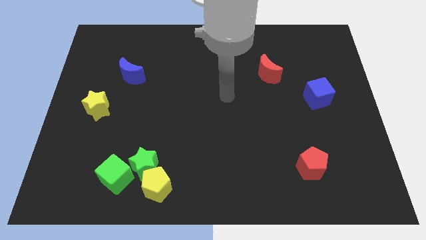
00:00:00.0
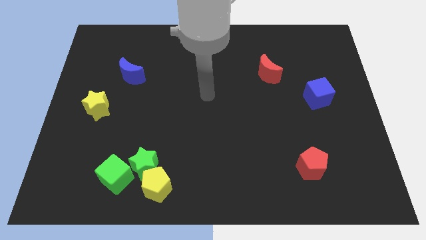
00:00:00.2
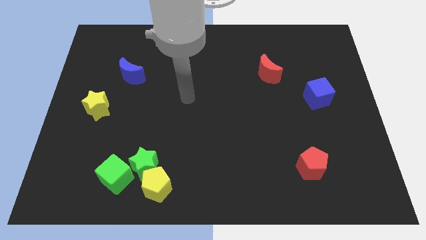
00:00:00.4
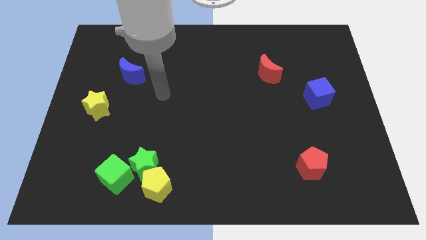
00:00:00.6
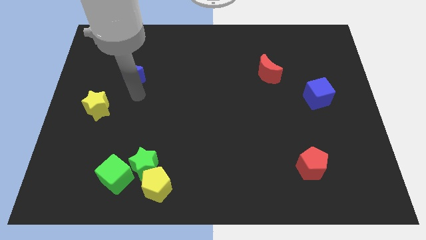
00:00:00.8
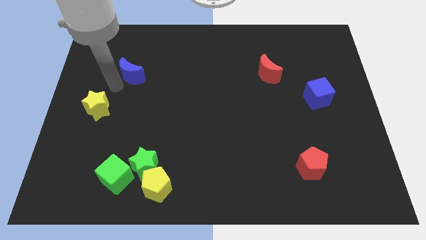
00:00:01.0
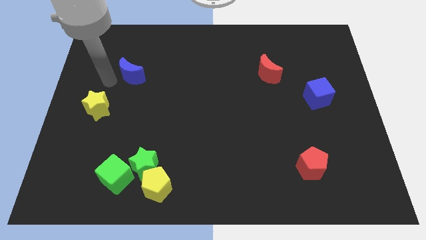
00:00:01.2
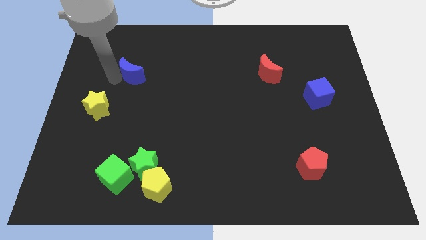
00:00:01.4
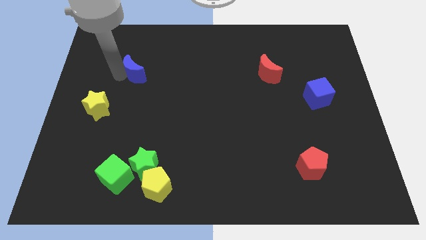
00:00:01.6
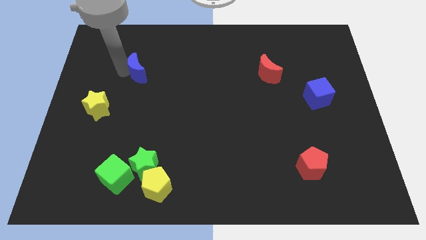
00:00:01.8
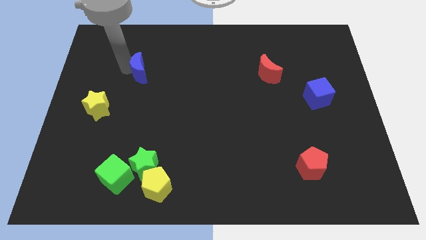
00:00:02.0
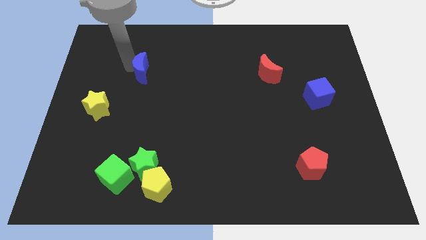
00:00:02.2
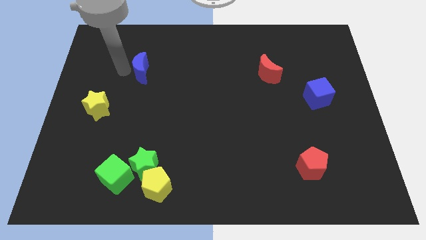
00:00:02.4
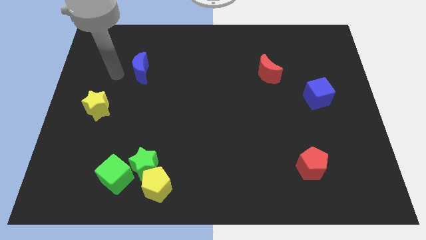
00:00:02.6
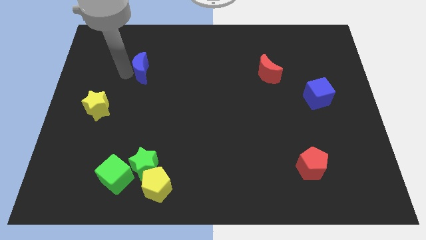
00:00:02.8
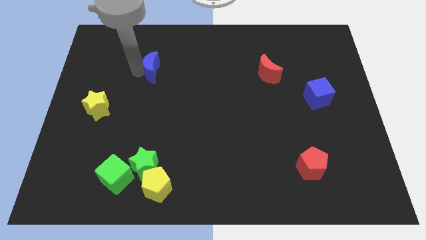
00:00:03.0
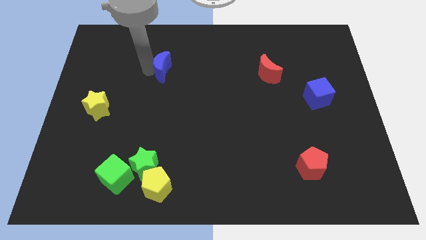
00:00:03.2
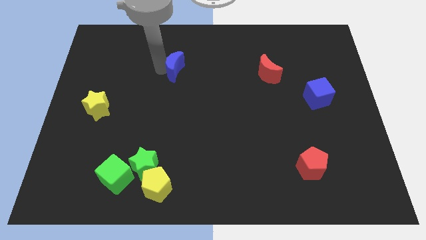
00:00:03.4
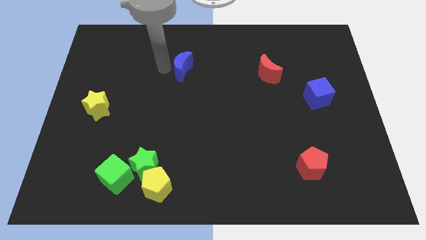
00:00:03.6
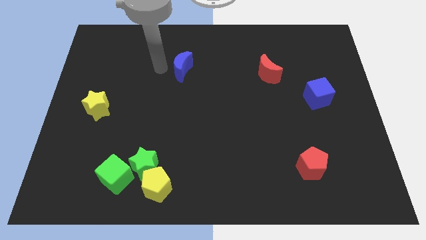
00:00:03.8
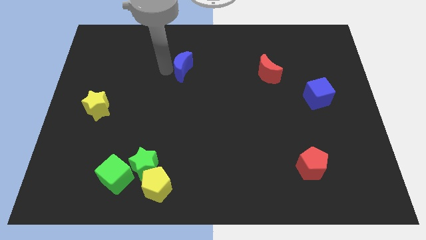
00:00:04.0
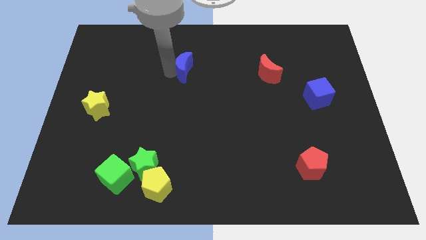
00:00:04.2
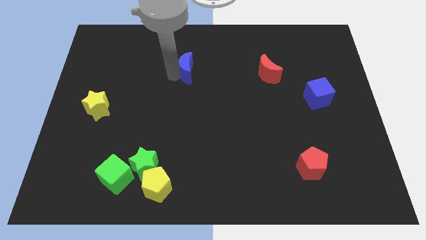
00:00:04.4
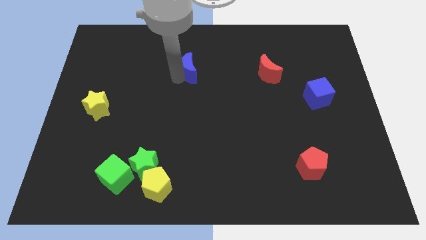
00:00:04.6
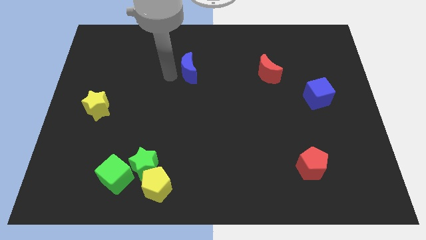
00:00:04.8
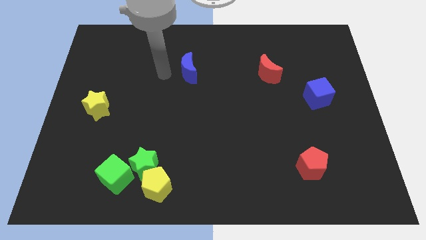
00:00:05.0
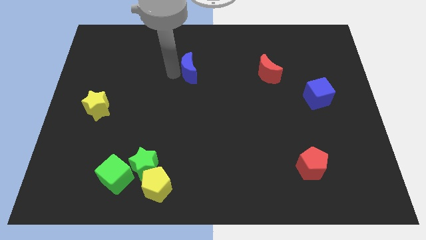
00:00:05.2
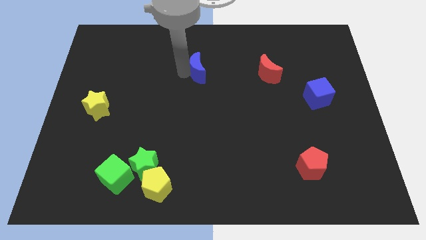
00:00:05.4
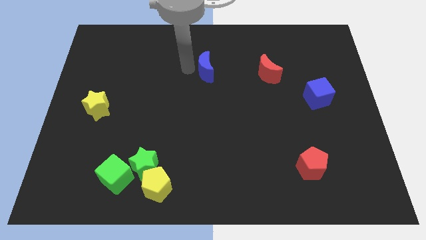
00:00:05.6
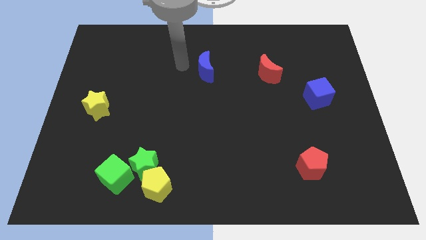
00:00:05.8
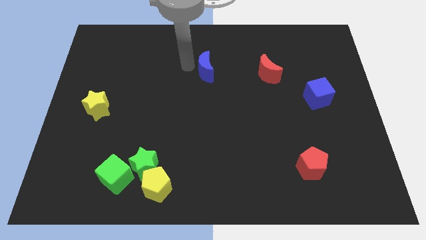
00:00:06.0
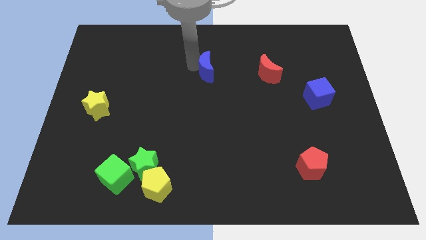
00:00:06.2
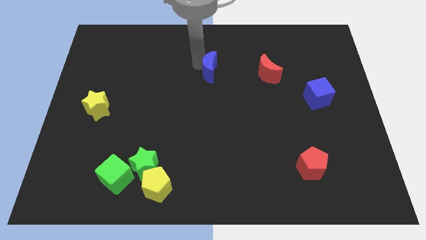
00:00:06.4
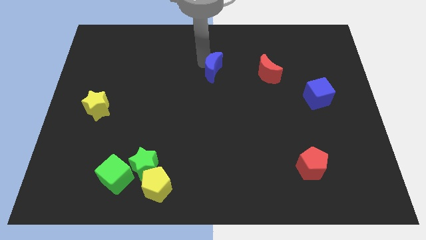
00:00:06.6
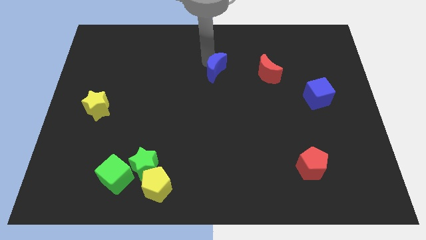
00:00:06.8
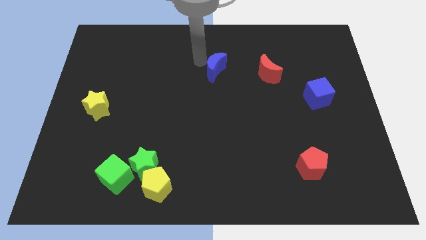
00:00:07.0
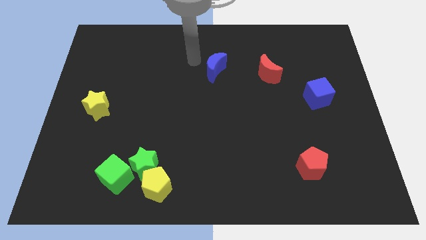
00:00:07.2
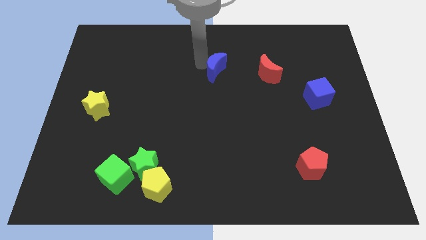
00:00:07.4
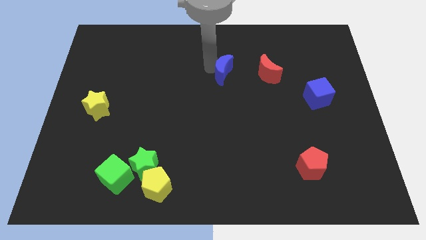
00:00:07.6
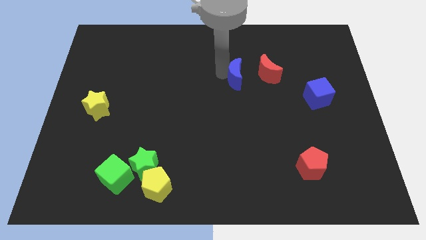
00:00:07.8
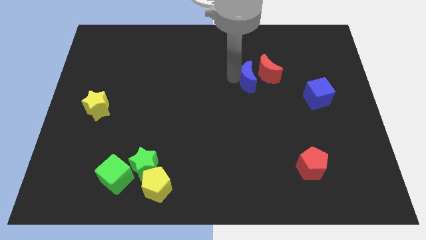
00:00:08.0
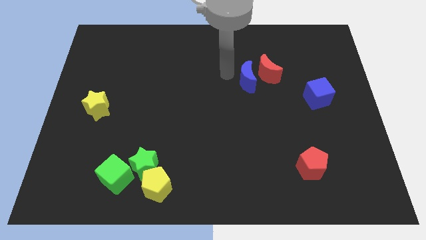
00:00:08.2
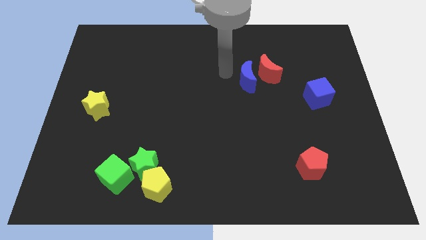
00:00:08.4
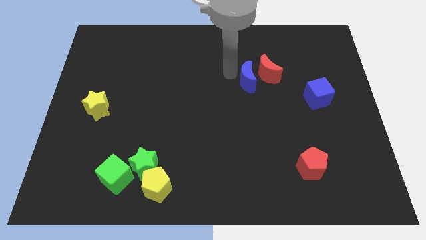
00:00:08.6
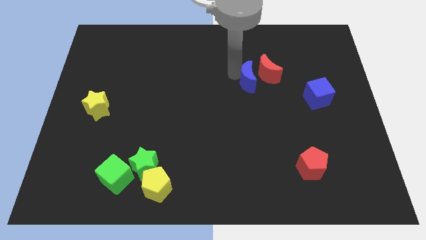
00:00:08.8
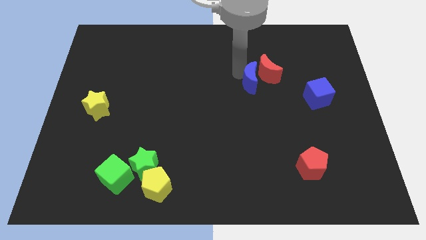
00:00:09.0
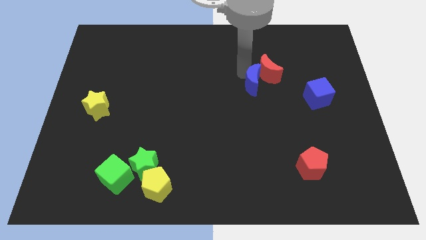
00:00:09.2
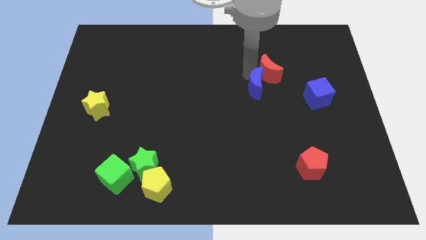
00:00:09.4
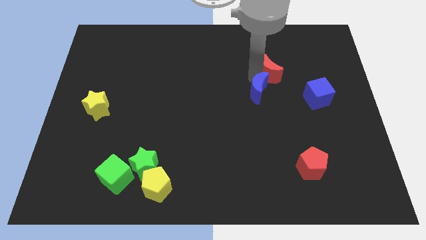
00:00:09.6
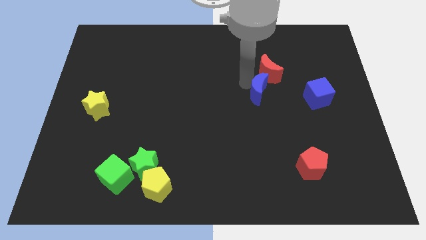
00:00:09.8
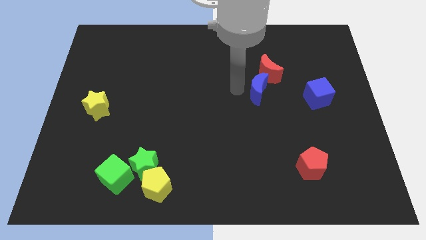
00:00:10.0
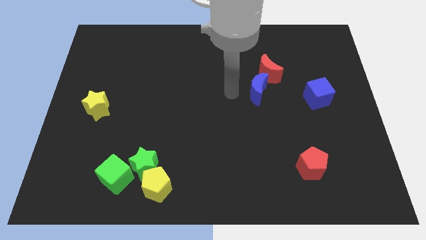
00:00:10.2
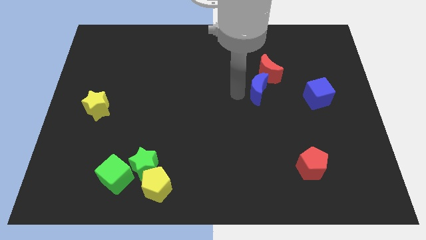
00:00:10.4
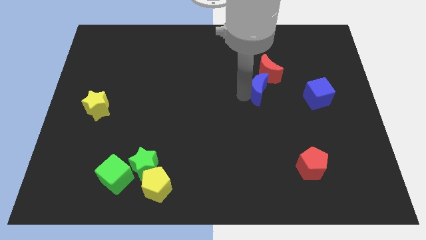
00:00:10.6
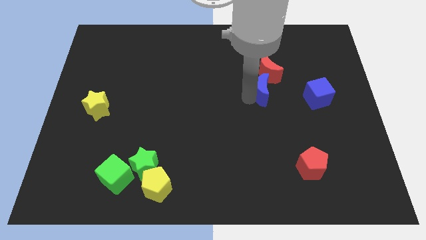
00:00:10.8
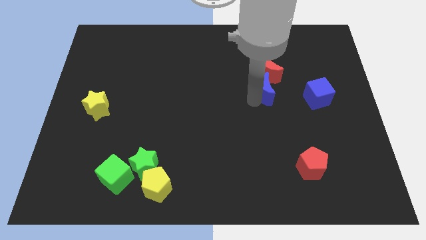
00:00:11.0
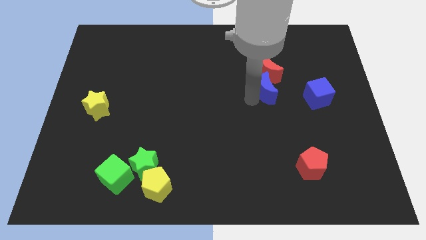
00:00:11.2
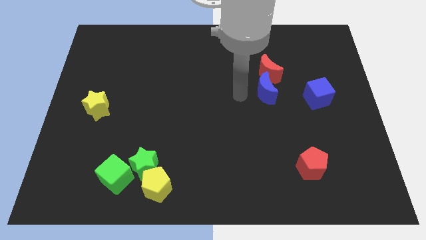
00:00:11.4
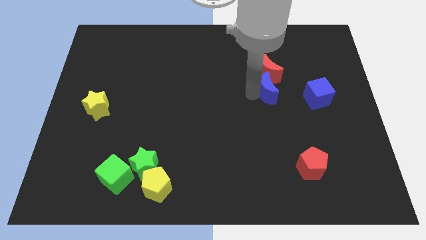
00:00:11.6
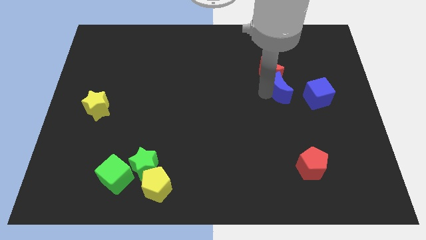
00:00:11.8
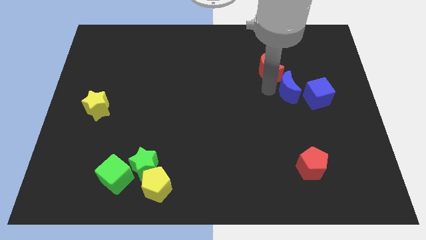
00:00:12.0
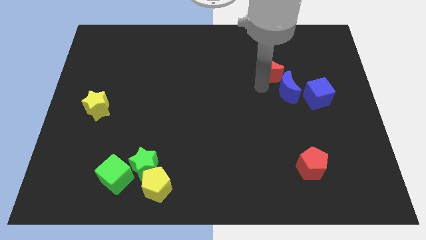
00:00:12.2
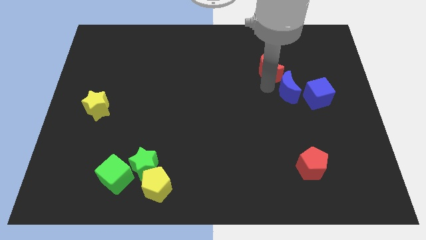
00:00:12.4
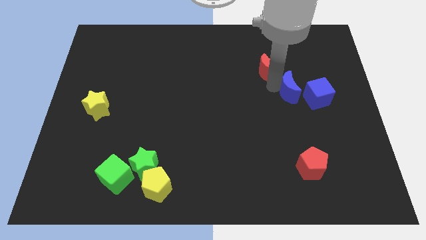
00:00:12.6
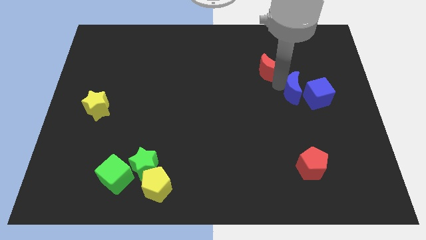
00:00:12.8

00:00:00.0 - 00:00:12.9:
push the blue moon close to the blue cube

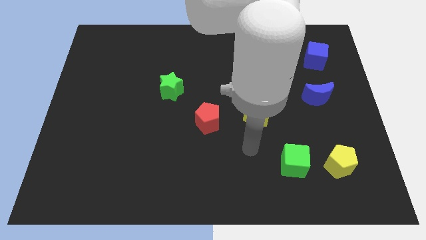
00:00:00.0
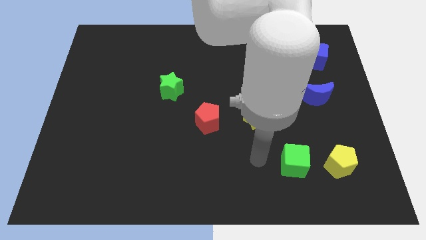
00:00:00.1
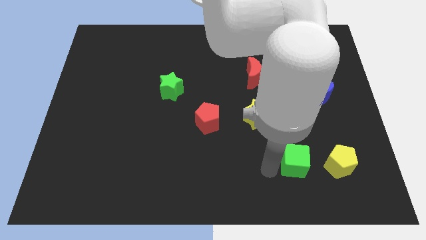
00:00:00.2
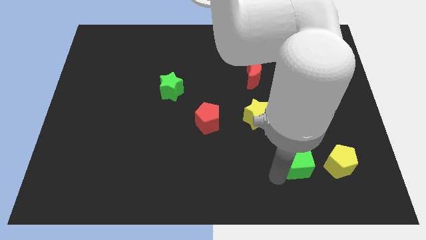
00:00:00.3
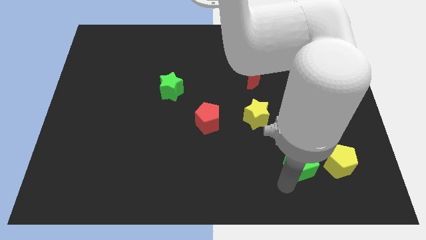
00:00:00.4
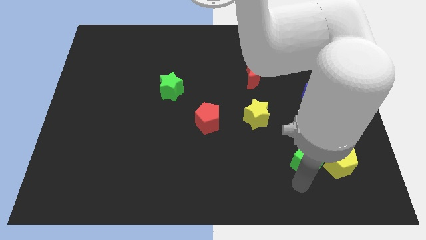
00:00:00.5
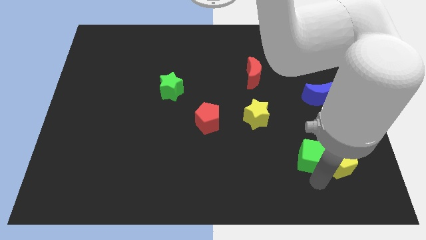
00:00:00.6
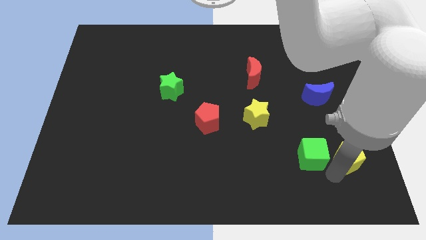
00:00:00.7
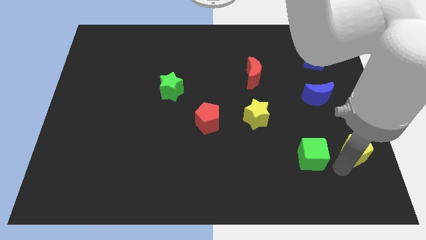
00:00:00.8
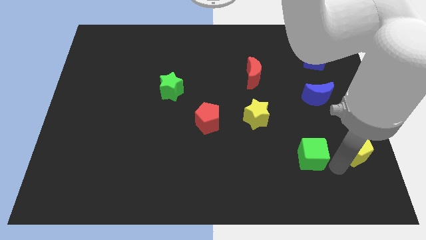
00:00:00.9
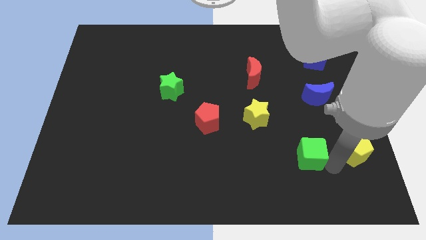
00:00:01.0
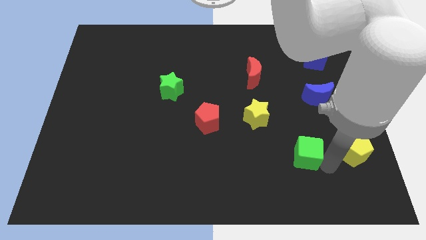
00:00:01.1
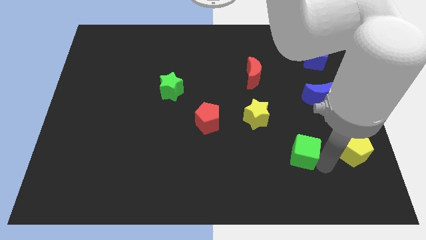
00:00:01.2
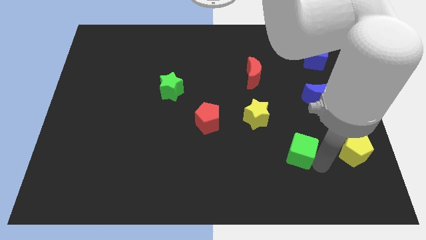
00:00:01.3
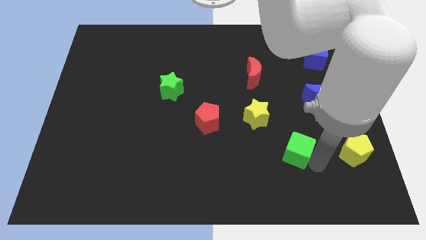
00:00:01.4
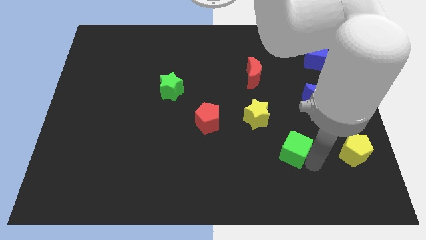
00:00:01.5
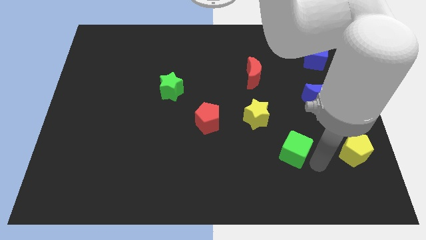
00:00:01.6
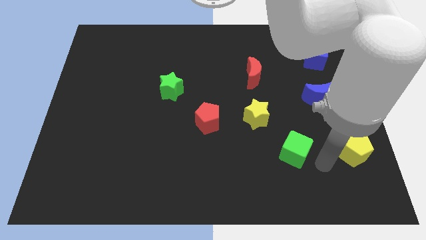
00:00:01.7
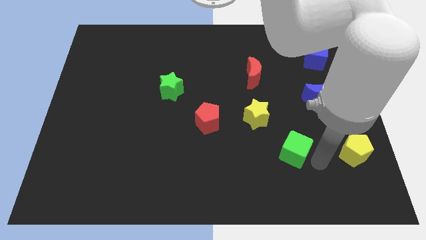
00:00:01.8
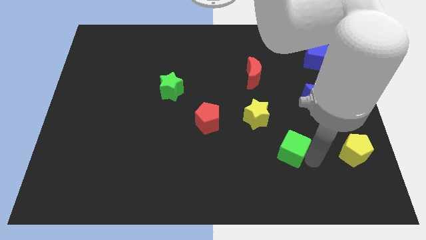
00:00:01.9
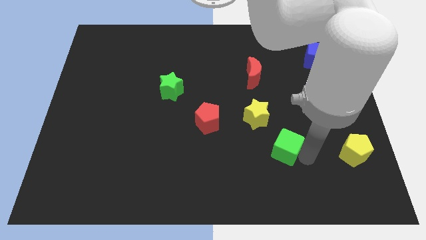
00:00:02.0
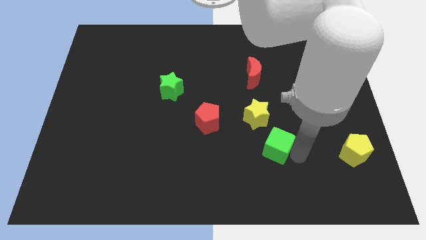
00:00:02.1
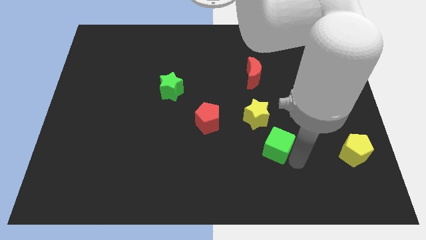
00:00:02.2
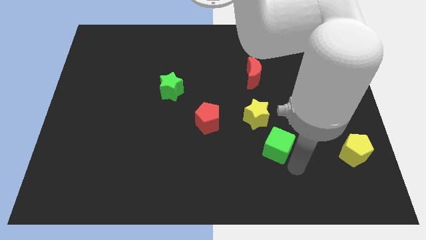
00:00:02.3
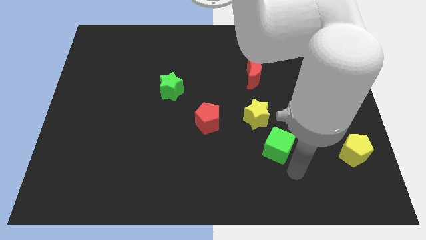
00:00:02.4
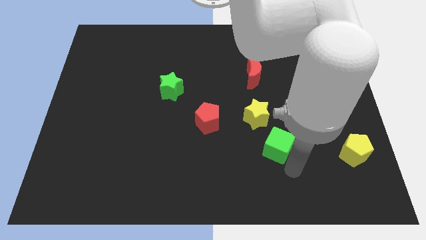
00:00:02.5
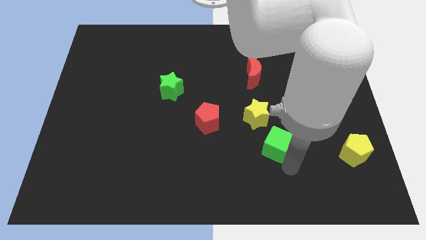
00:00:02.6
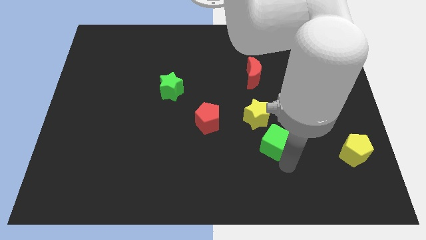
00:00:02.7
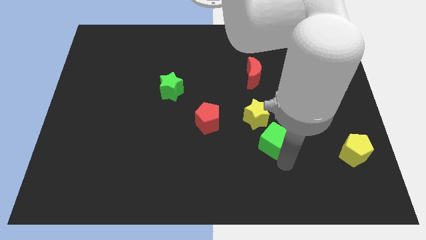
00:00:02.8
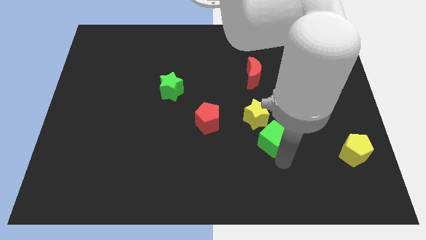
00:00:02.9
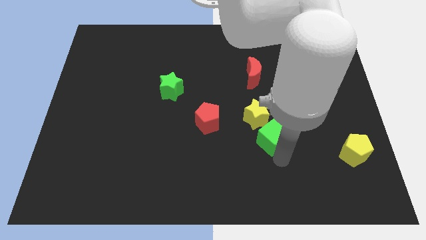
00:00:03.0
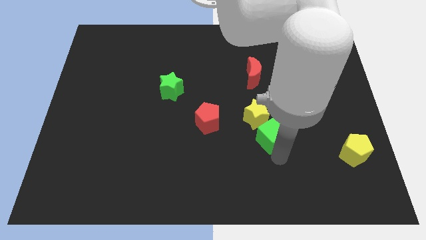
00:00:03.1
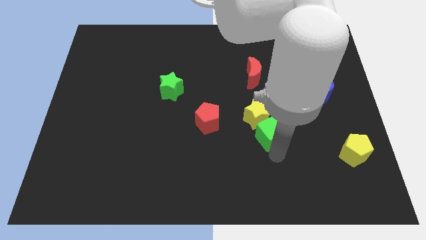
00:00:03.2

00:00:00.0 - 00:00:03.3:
slide the green cube to the yellow star
